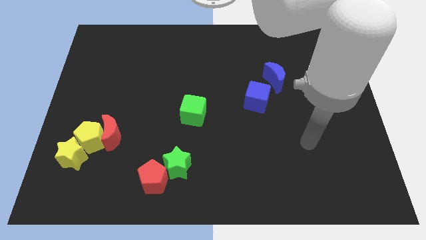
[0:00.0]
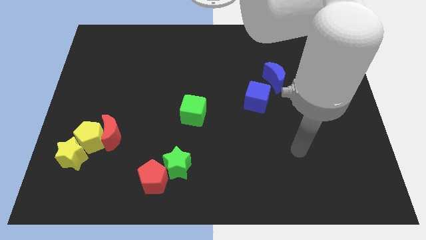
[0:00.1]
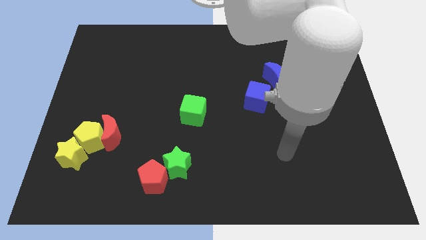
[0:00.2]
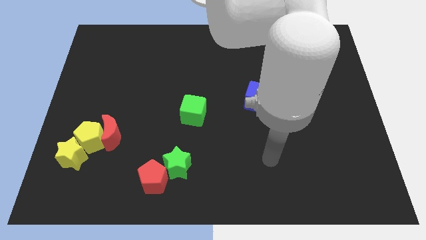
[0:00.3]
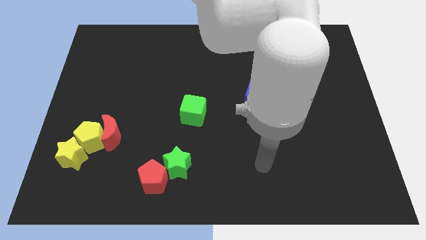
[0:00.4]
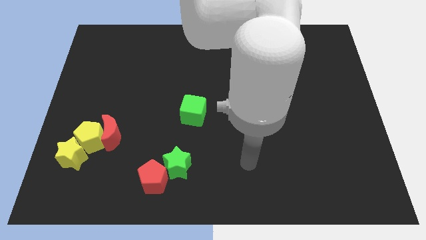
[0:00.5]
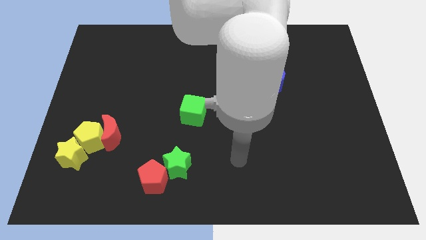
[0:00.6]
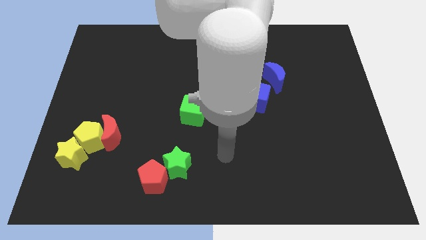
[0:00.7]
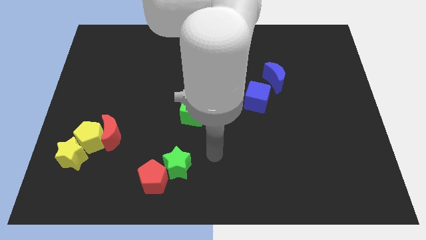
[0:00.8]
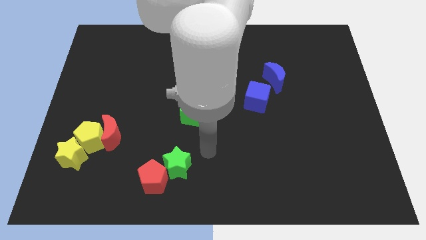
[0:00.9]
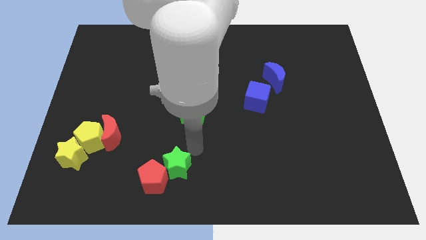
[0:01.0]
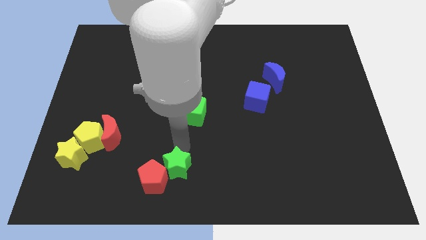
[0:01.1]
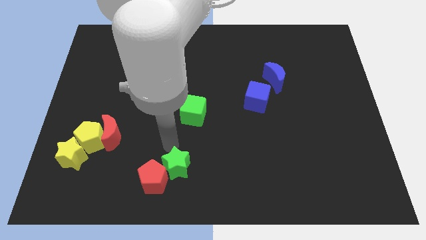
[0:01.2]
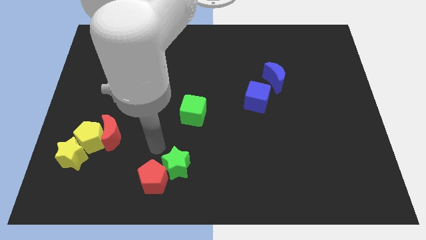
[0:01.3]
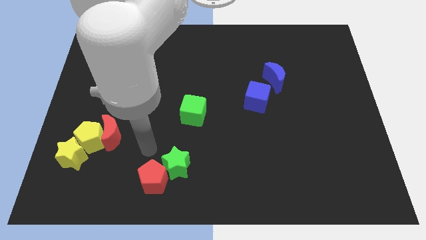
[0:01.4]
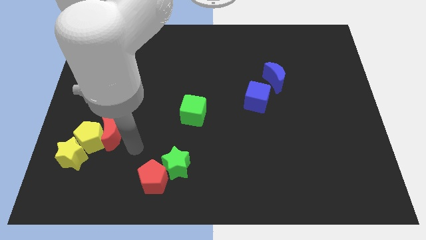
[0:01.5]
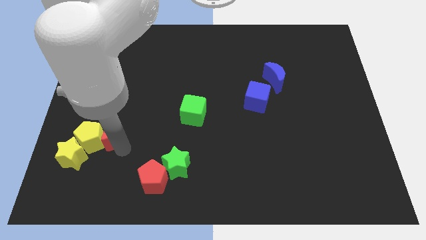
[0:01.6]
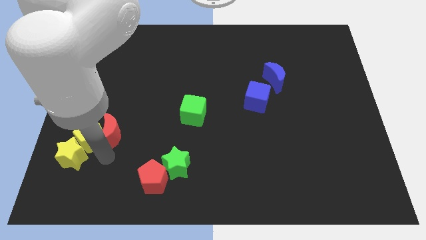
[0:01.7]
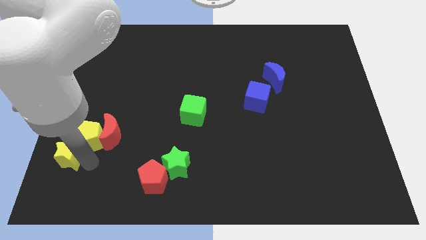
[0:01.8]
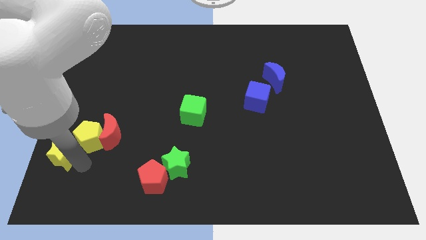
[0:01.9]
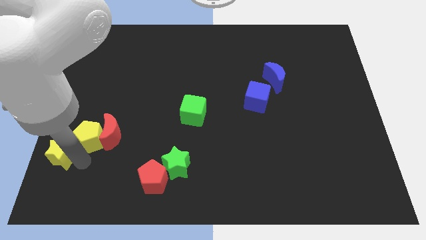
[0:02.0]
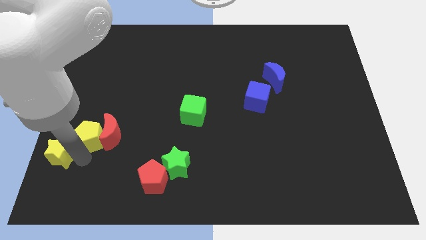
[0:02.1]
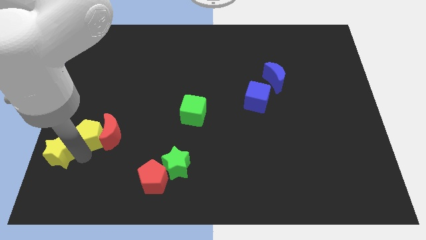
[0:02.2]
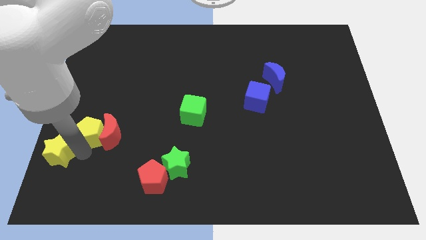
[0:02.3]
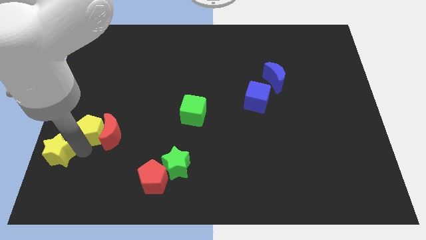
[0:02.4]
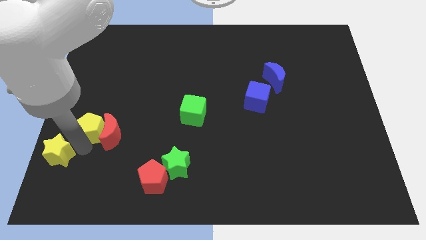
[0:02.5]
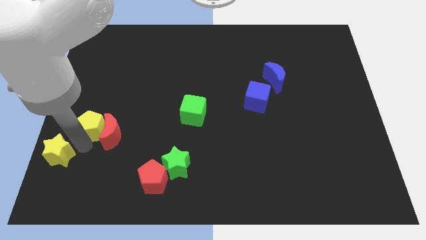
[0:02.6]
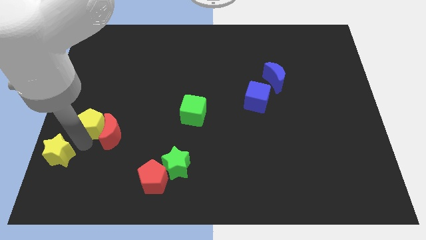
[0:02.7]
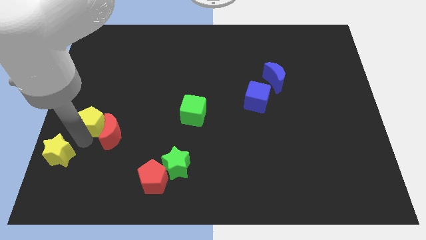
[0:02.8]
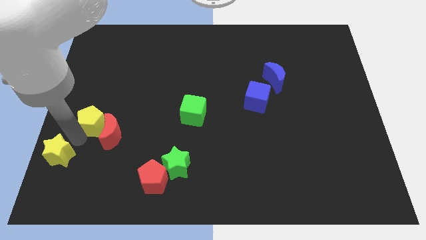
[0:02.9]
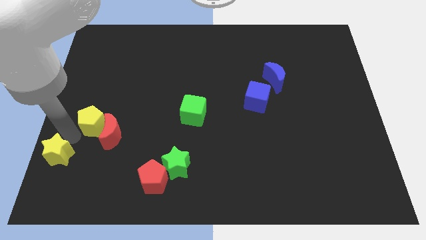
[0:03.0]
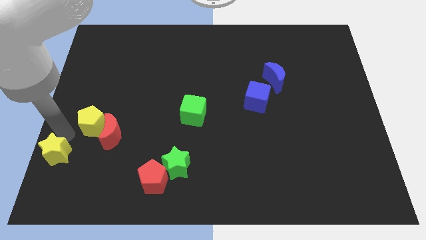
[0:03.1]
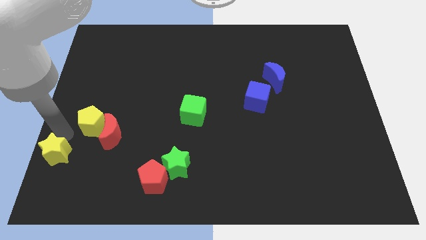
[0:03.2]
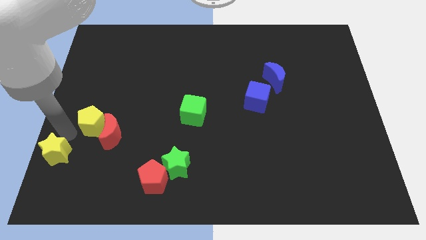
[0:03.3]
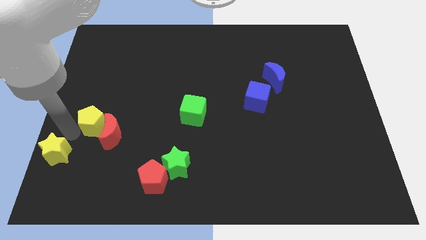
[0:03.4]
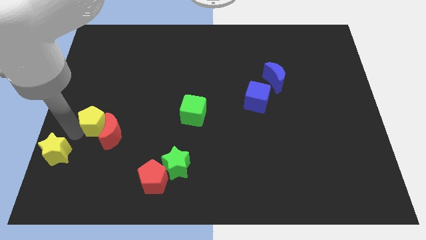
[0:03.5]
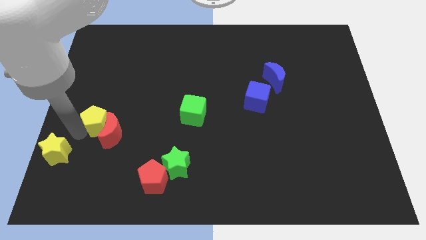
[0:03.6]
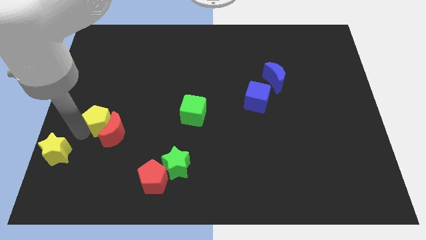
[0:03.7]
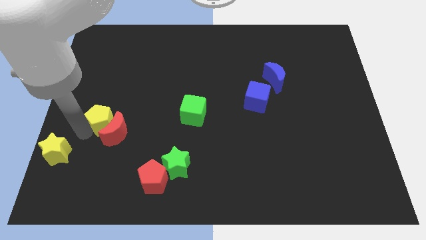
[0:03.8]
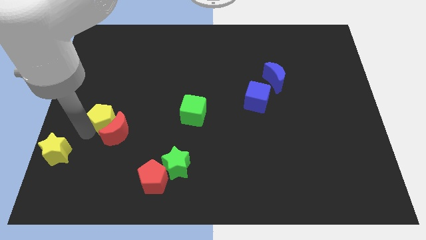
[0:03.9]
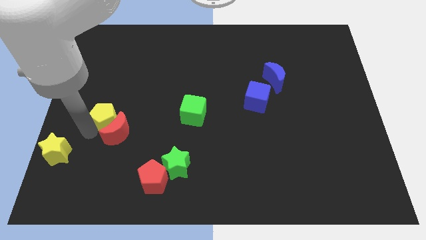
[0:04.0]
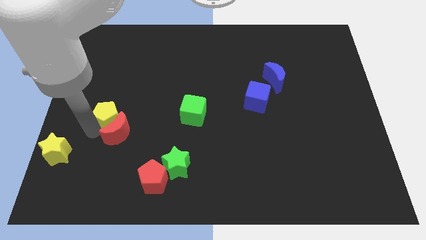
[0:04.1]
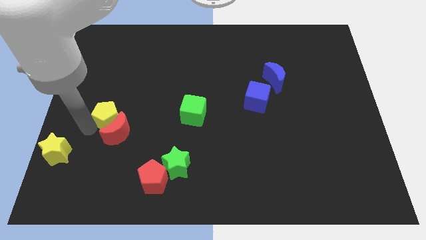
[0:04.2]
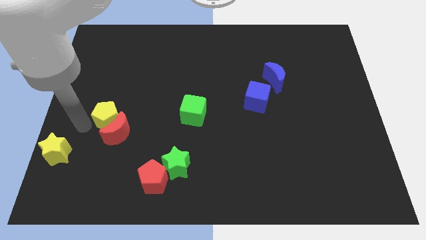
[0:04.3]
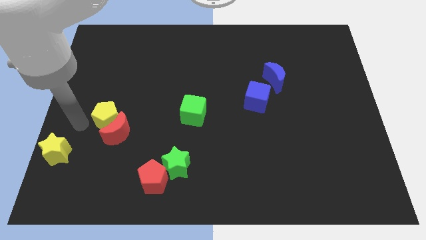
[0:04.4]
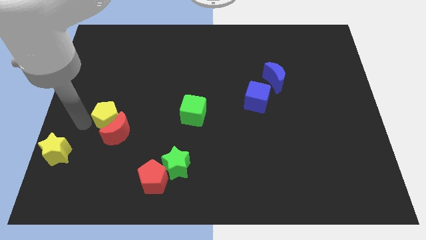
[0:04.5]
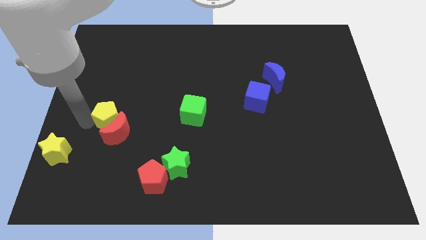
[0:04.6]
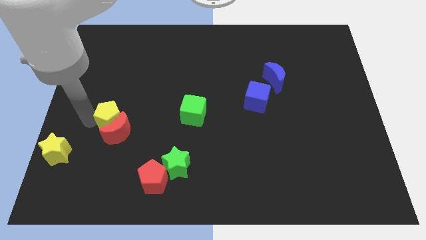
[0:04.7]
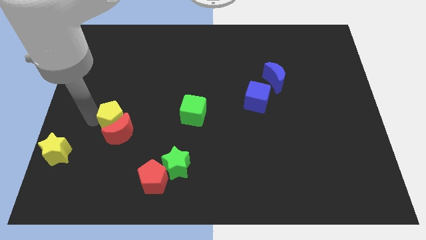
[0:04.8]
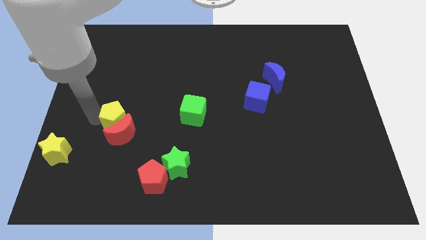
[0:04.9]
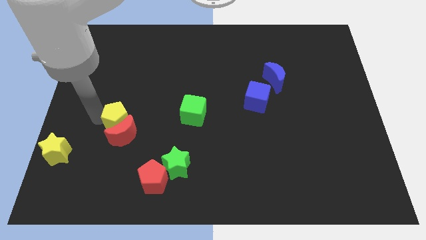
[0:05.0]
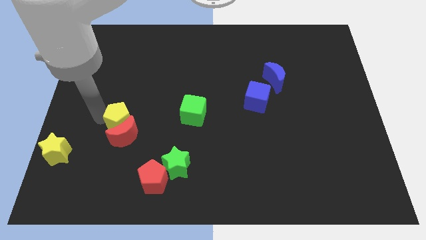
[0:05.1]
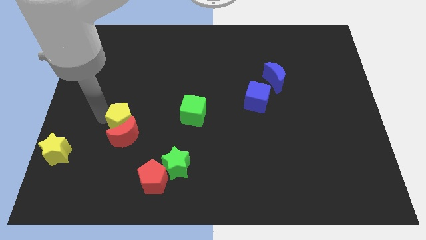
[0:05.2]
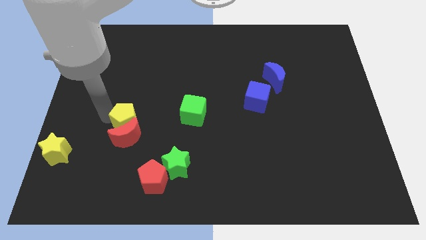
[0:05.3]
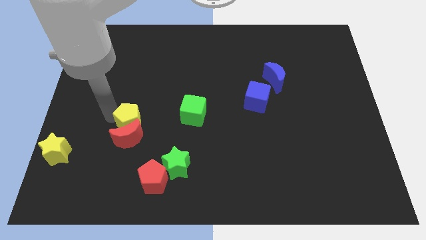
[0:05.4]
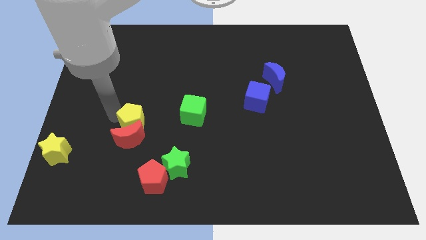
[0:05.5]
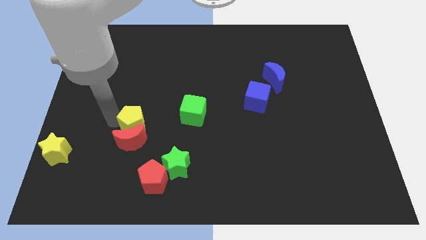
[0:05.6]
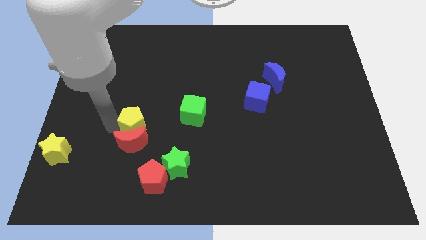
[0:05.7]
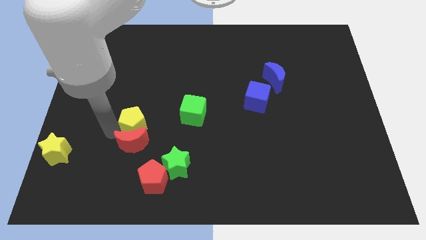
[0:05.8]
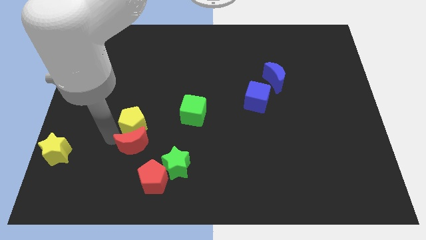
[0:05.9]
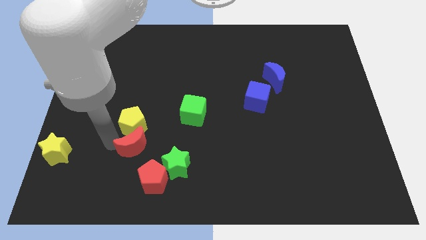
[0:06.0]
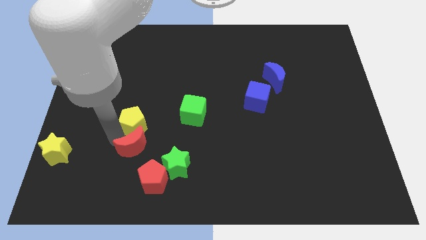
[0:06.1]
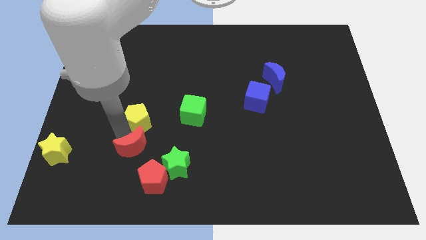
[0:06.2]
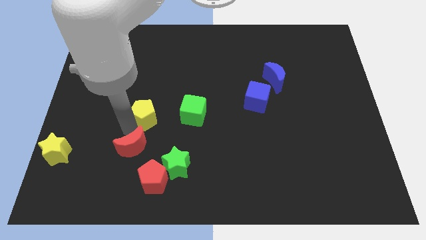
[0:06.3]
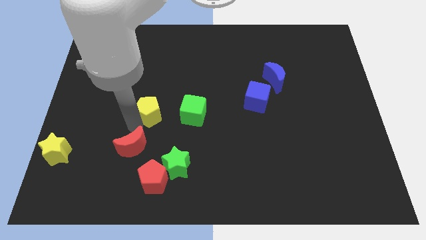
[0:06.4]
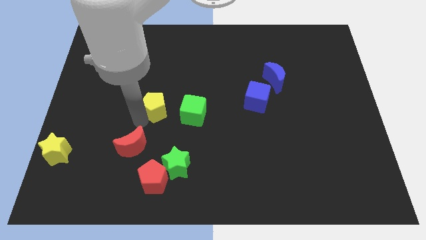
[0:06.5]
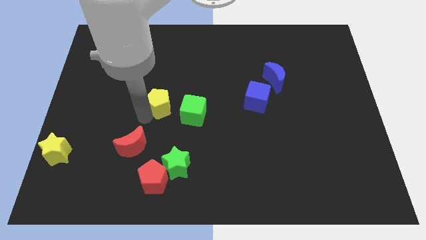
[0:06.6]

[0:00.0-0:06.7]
put the yellow pentagon to the center
